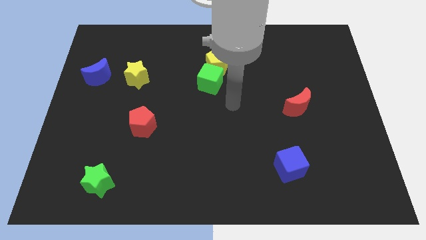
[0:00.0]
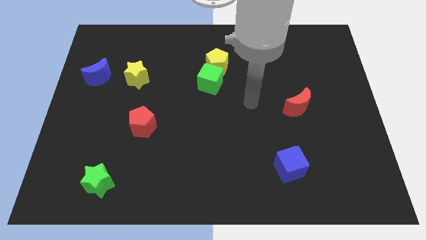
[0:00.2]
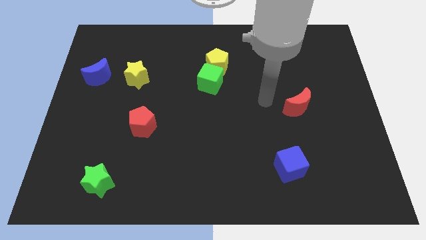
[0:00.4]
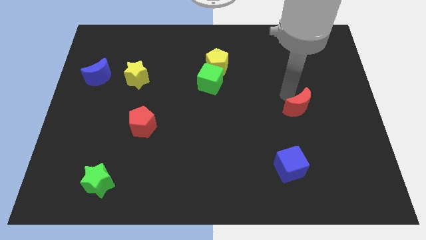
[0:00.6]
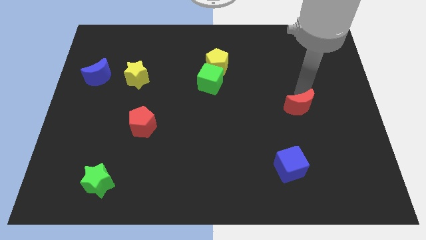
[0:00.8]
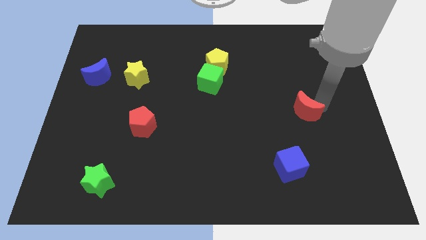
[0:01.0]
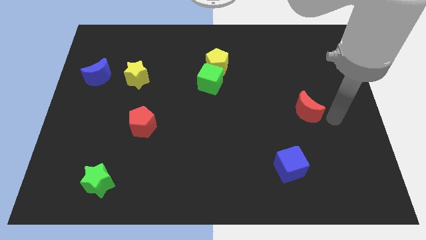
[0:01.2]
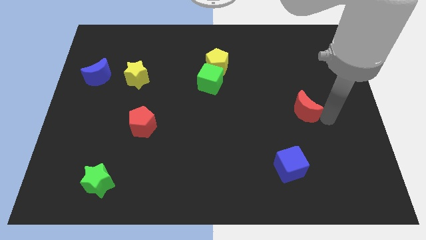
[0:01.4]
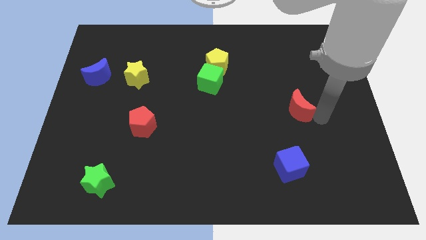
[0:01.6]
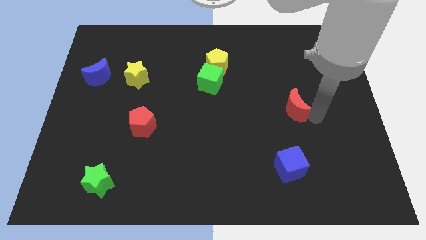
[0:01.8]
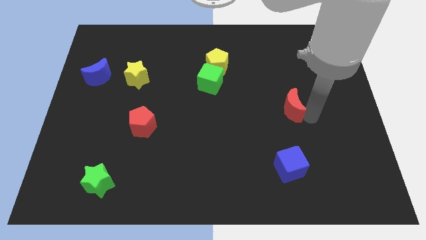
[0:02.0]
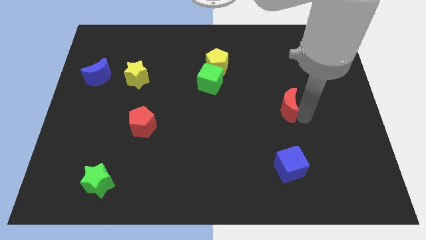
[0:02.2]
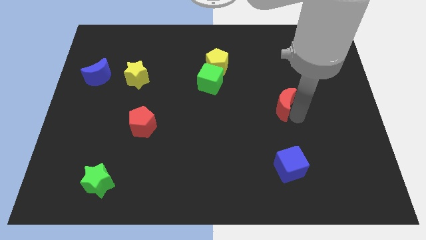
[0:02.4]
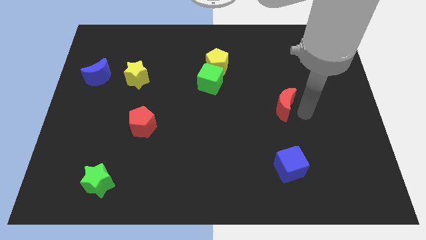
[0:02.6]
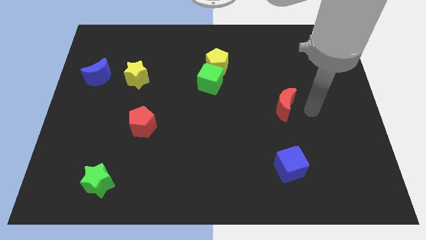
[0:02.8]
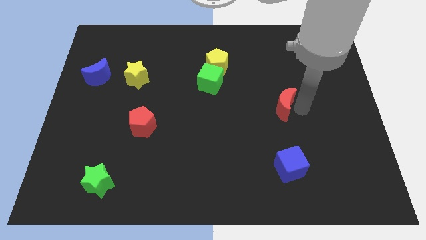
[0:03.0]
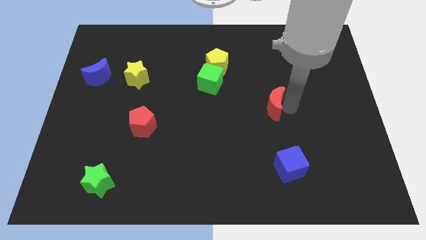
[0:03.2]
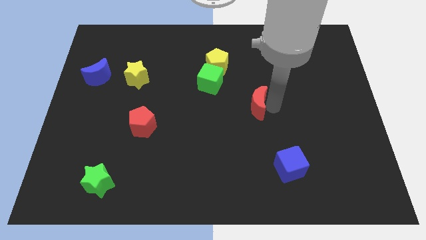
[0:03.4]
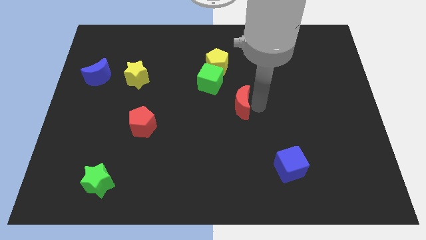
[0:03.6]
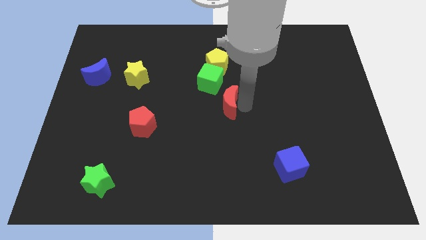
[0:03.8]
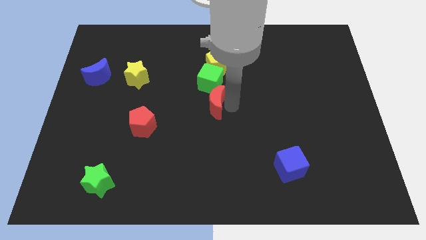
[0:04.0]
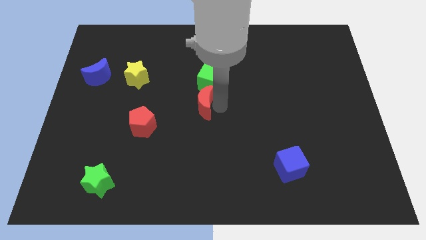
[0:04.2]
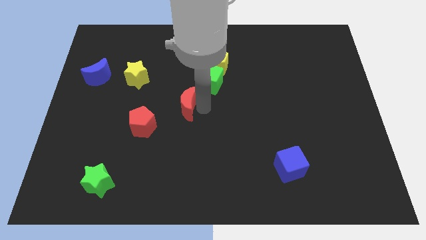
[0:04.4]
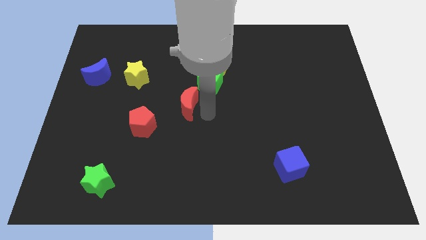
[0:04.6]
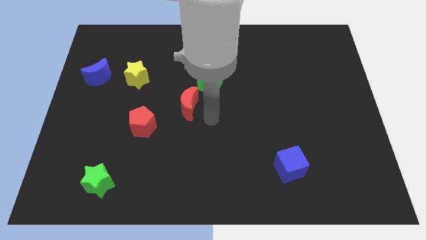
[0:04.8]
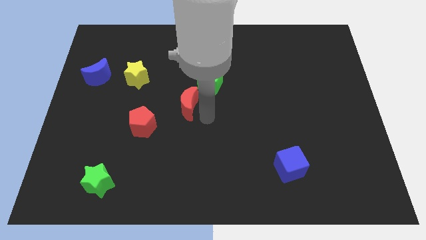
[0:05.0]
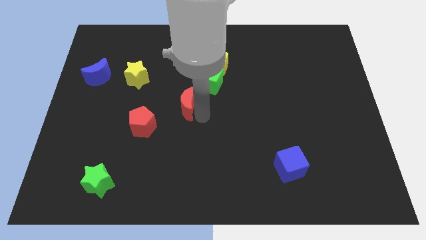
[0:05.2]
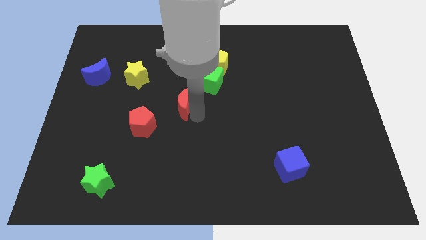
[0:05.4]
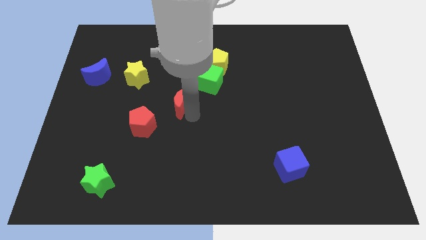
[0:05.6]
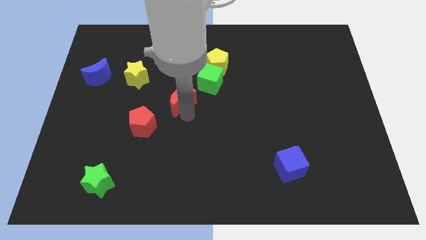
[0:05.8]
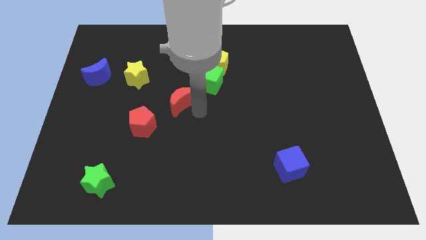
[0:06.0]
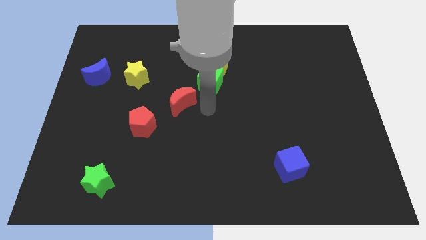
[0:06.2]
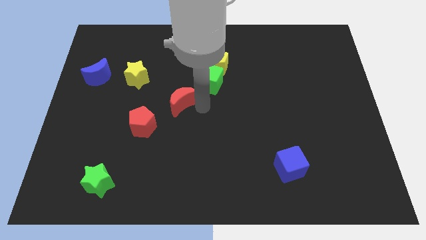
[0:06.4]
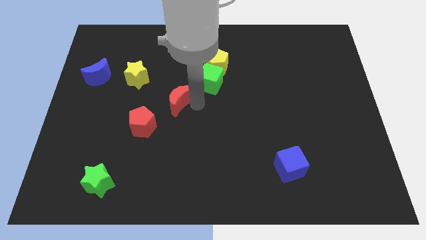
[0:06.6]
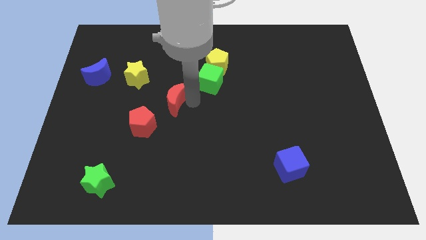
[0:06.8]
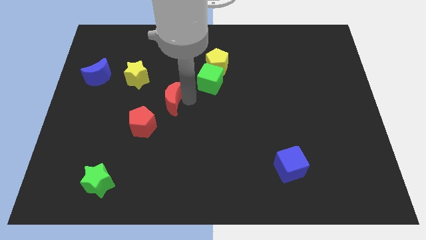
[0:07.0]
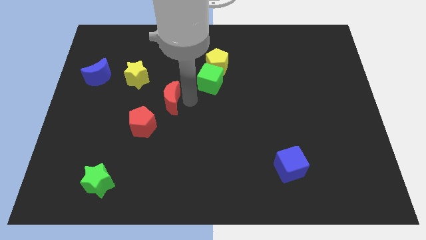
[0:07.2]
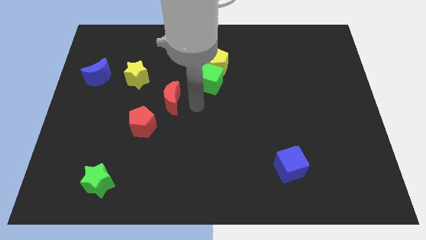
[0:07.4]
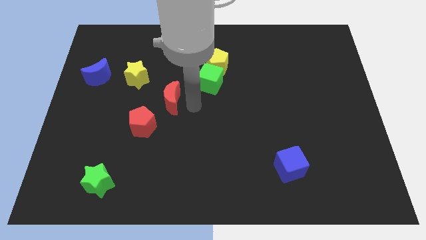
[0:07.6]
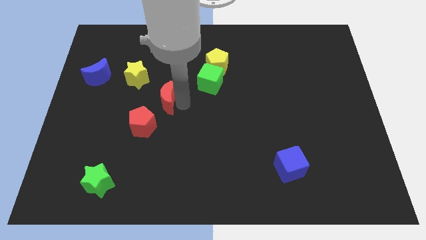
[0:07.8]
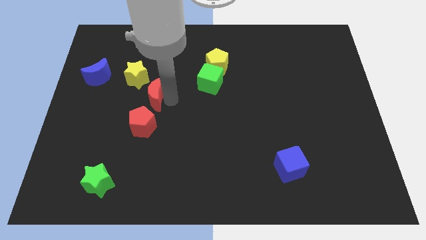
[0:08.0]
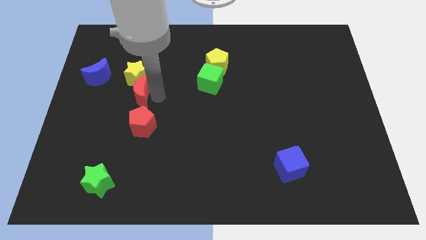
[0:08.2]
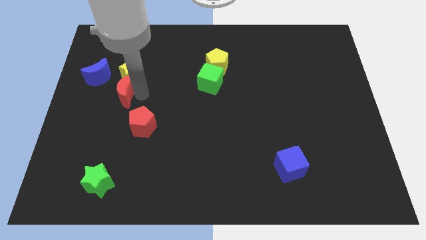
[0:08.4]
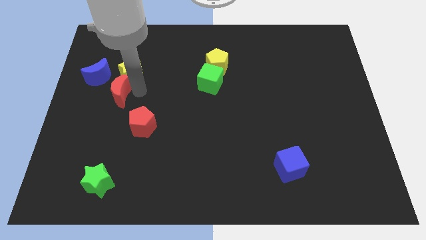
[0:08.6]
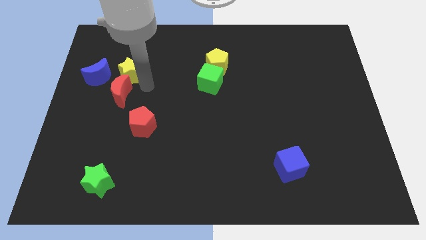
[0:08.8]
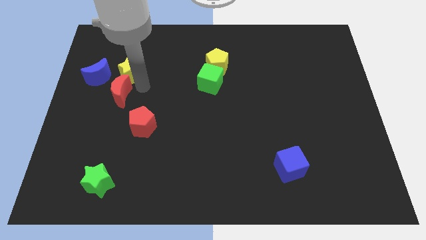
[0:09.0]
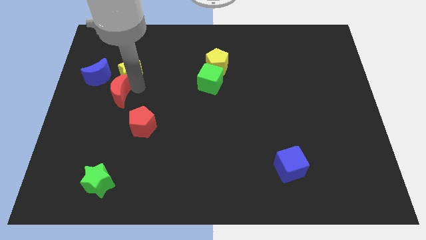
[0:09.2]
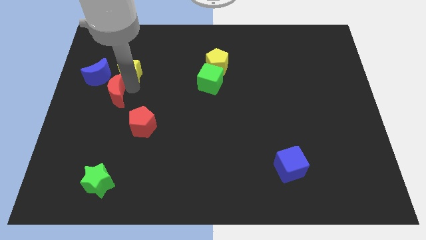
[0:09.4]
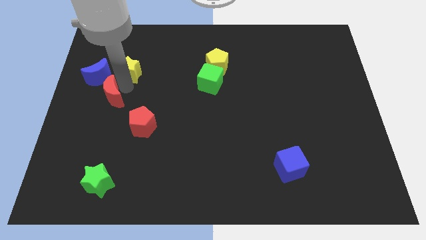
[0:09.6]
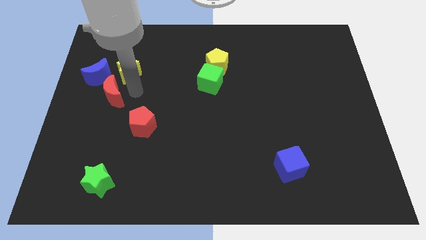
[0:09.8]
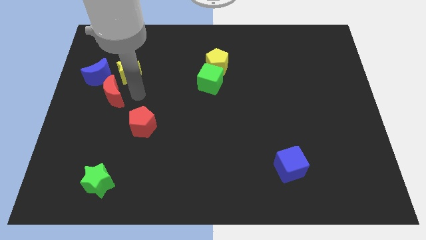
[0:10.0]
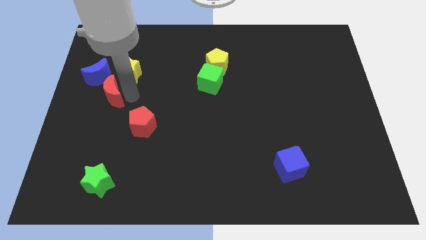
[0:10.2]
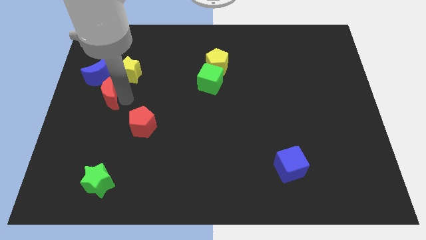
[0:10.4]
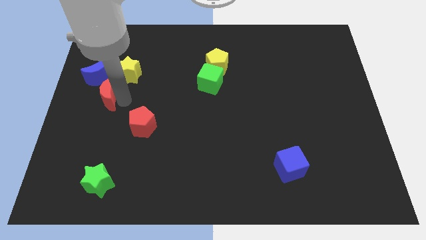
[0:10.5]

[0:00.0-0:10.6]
move the red moon to the left side
